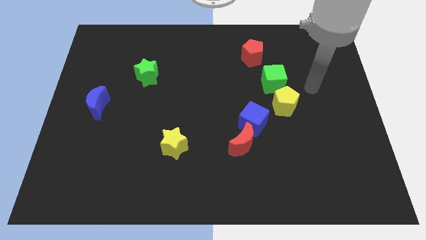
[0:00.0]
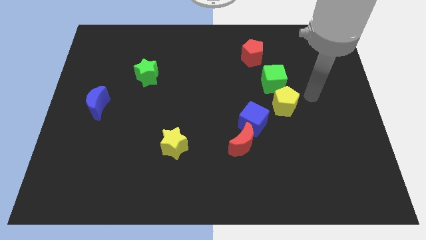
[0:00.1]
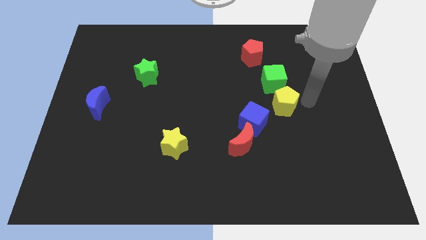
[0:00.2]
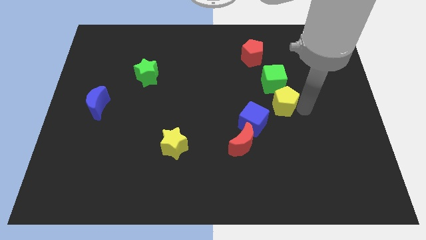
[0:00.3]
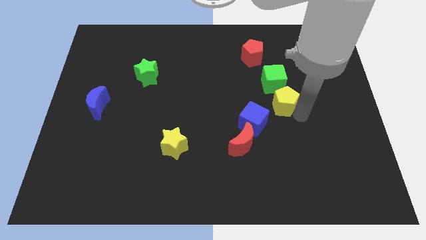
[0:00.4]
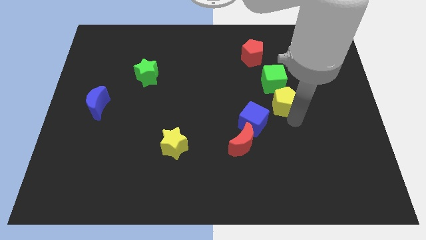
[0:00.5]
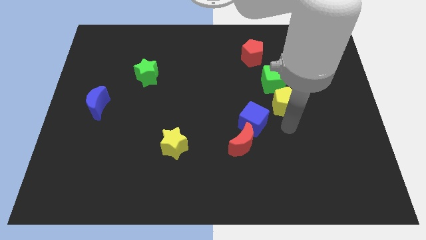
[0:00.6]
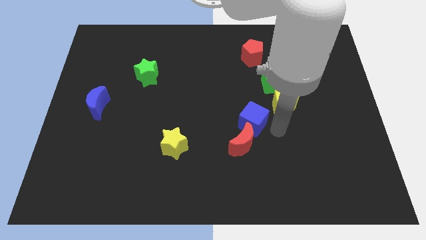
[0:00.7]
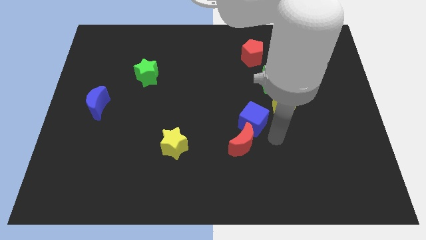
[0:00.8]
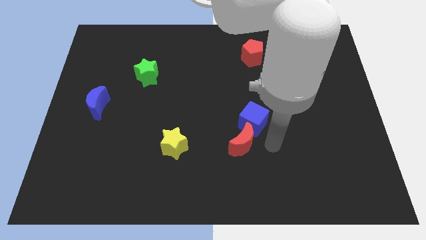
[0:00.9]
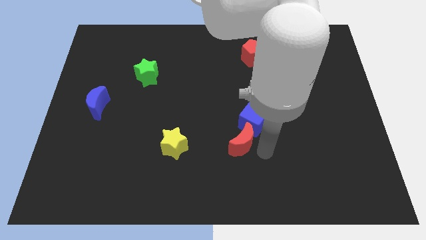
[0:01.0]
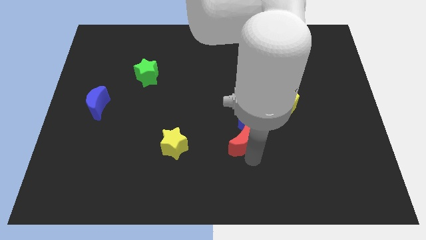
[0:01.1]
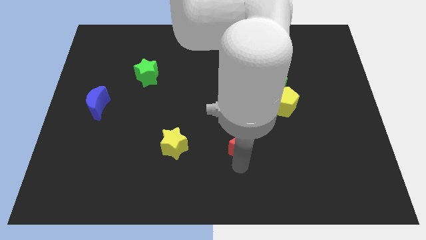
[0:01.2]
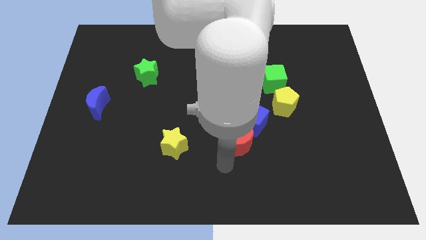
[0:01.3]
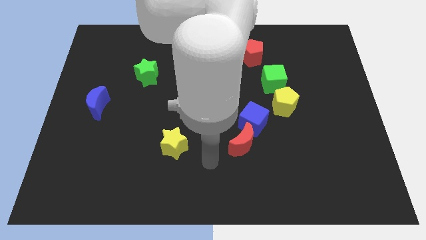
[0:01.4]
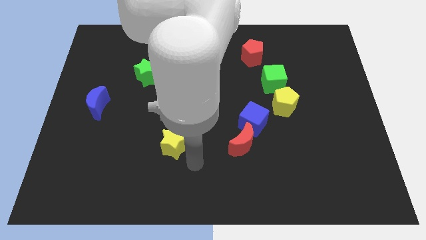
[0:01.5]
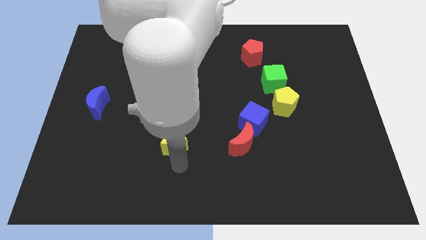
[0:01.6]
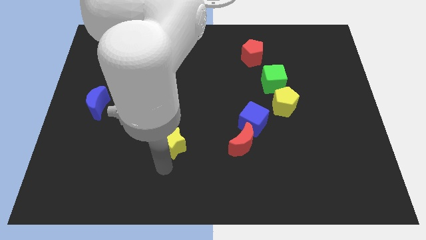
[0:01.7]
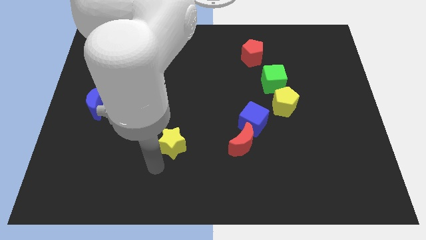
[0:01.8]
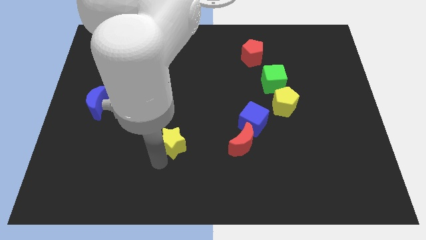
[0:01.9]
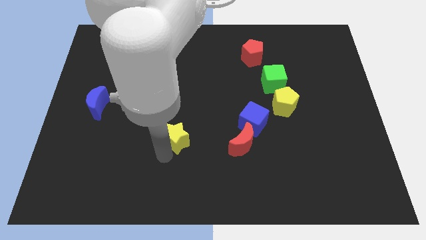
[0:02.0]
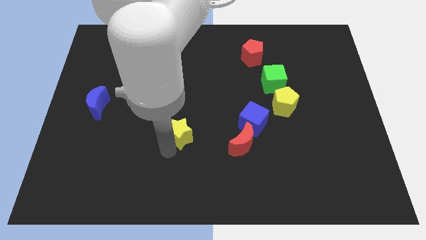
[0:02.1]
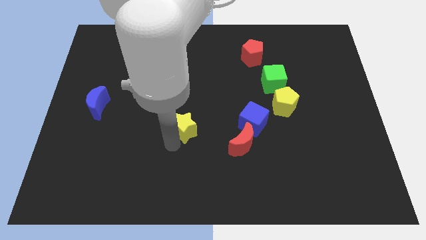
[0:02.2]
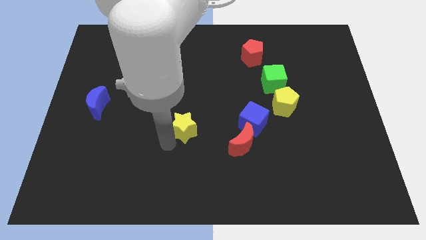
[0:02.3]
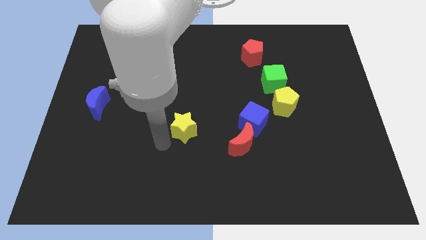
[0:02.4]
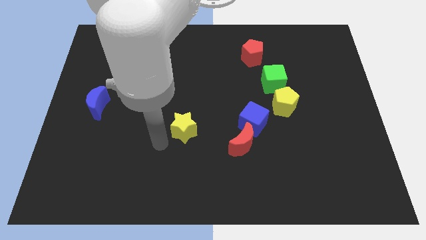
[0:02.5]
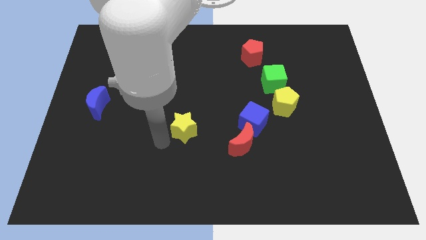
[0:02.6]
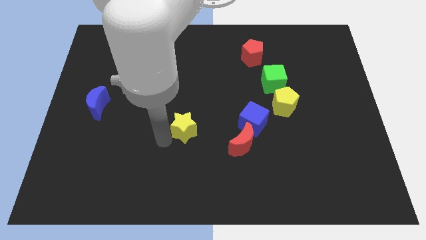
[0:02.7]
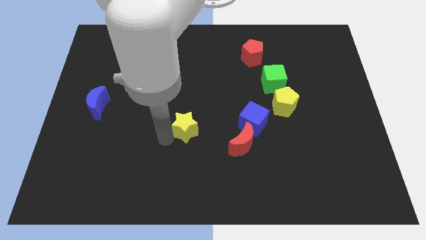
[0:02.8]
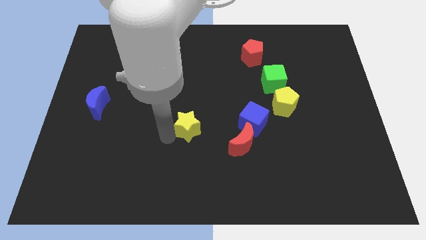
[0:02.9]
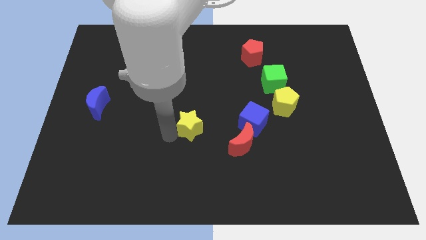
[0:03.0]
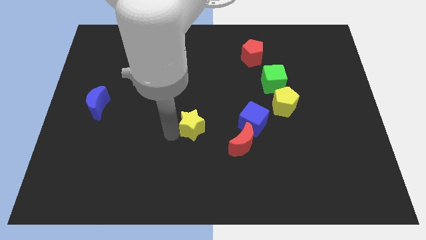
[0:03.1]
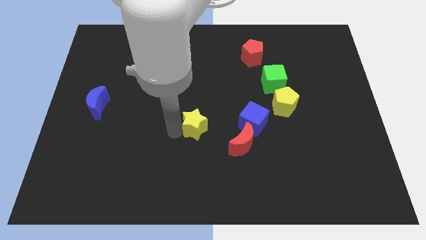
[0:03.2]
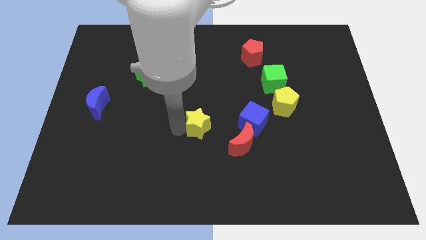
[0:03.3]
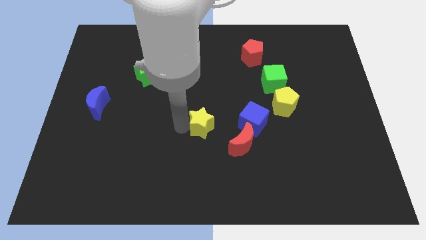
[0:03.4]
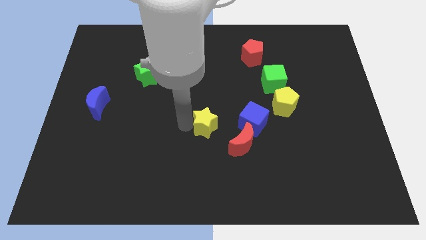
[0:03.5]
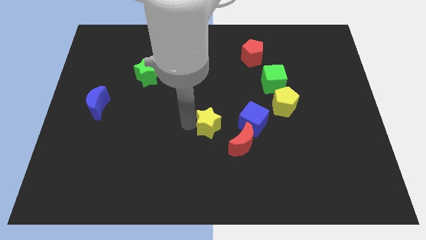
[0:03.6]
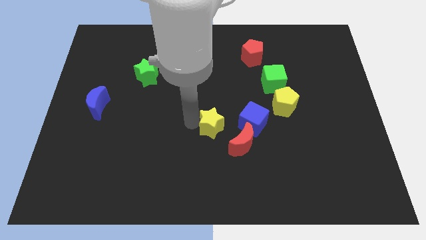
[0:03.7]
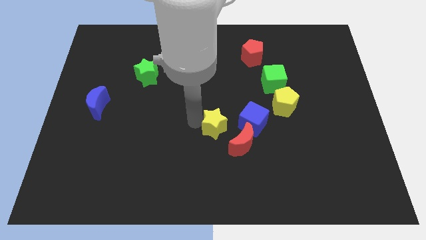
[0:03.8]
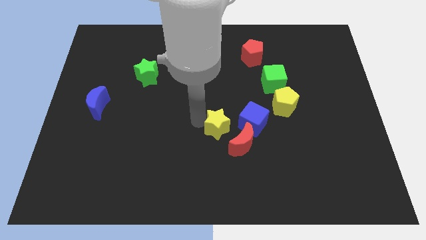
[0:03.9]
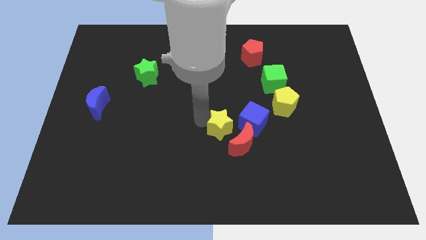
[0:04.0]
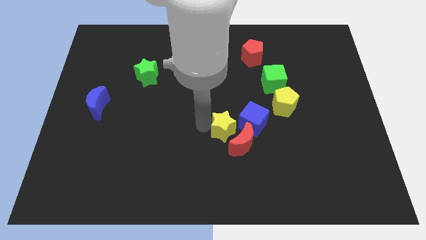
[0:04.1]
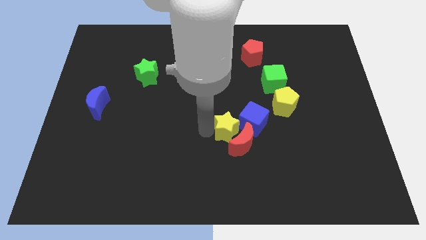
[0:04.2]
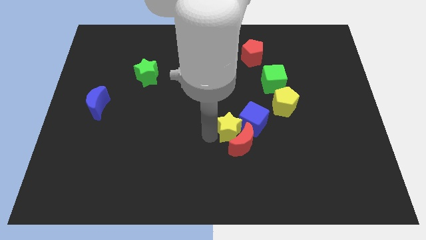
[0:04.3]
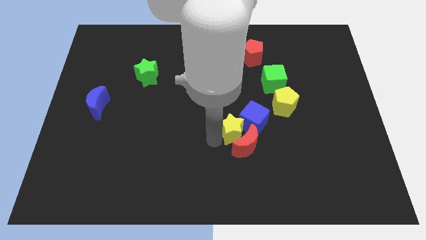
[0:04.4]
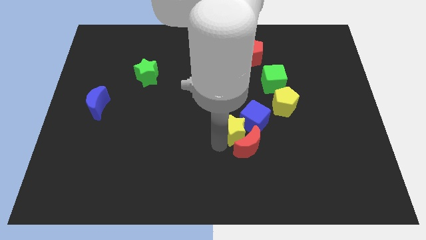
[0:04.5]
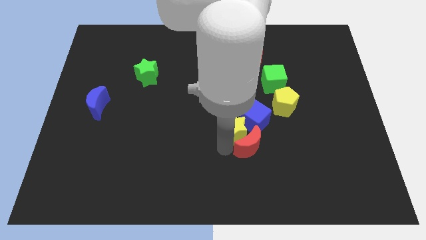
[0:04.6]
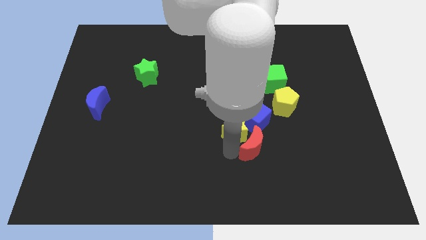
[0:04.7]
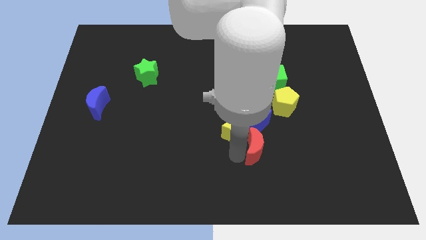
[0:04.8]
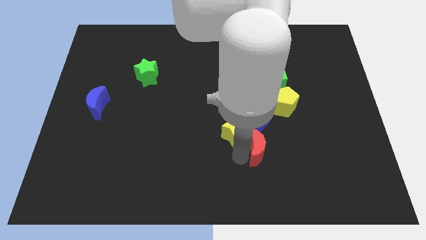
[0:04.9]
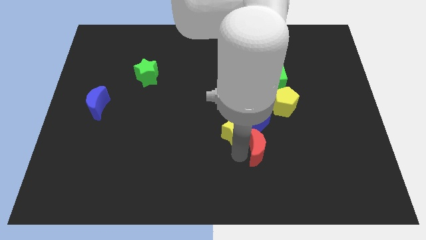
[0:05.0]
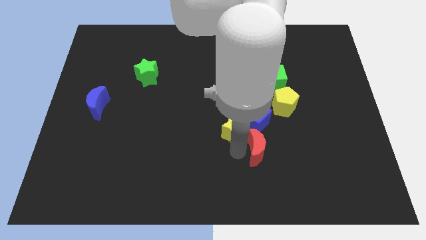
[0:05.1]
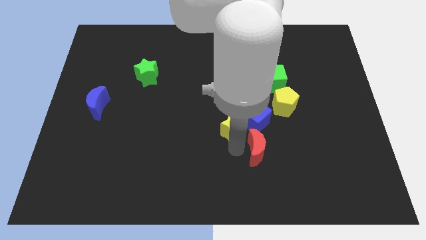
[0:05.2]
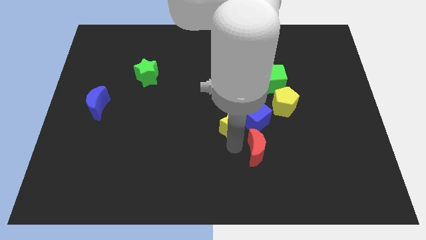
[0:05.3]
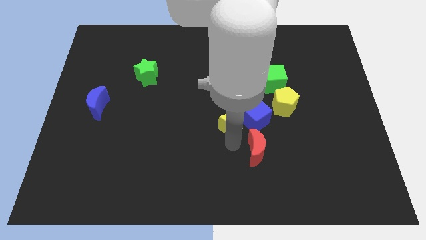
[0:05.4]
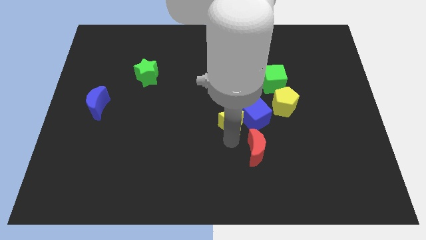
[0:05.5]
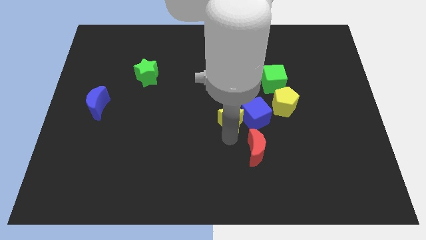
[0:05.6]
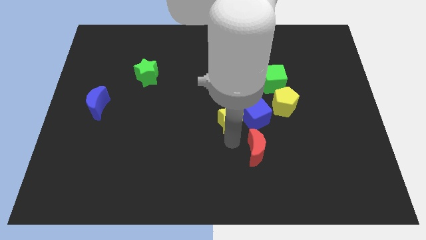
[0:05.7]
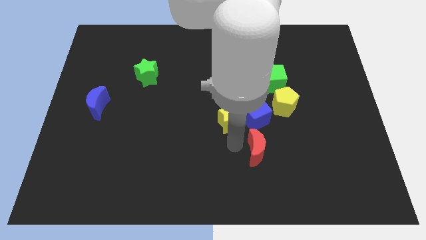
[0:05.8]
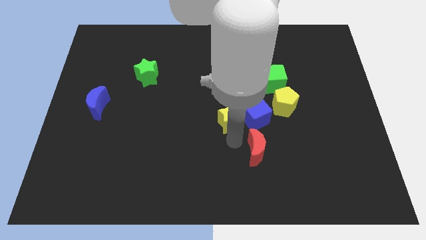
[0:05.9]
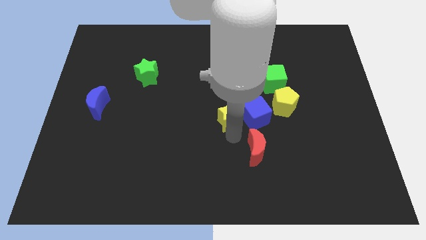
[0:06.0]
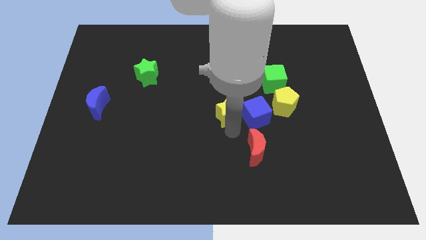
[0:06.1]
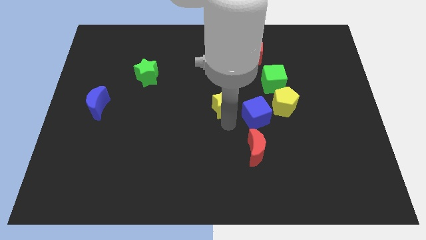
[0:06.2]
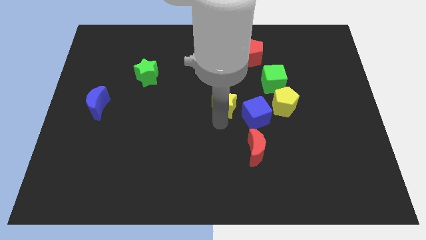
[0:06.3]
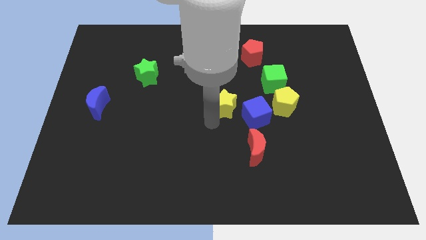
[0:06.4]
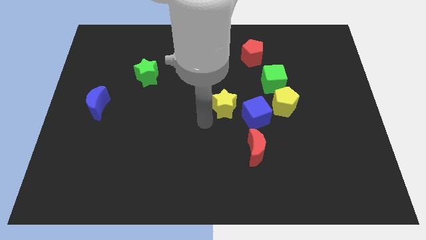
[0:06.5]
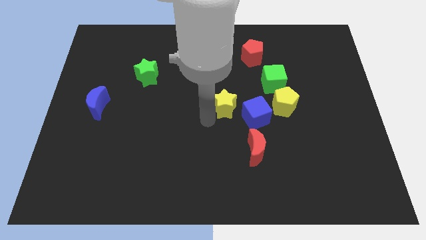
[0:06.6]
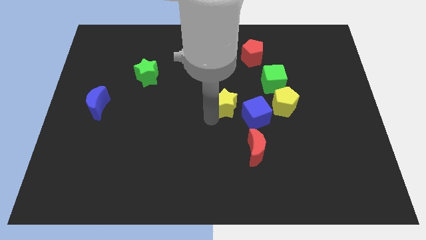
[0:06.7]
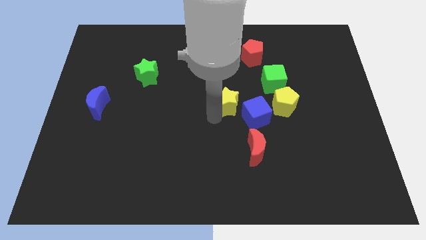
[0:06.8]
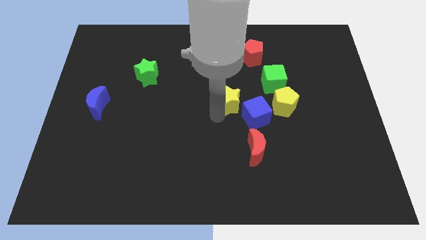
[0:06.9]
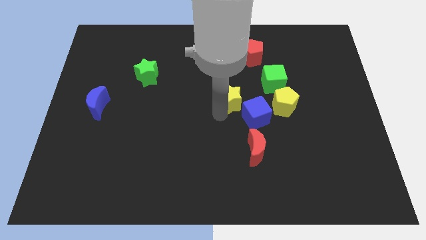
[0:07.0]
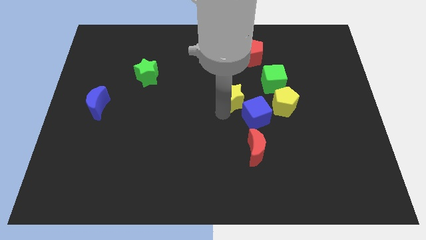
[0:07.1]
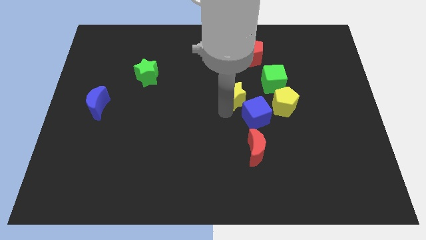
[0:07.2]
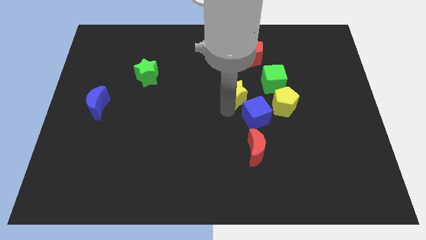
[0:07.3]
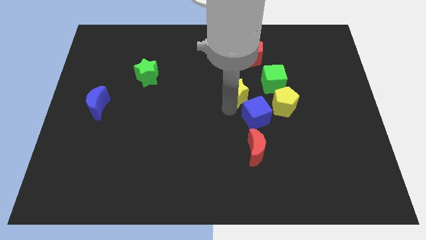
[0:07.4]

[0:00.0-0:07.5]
slide the yellow star upwards and to the right diagonally

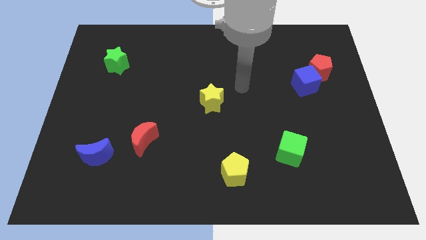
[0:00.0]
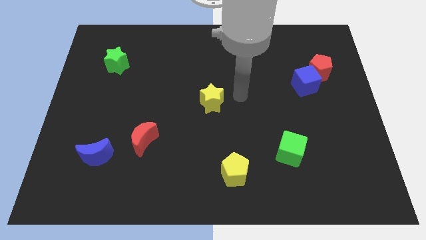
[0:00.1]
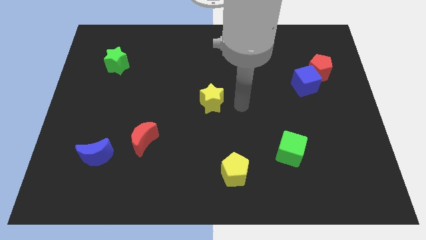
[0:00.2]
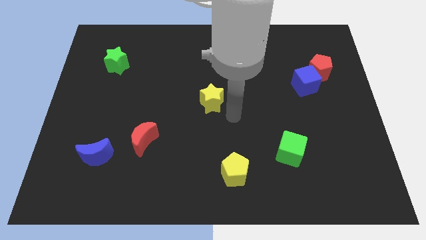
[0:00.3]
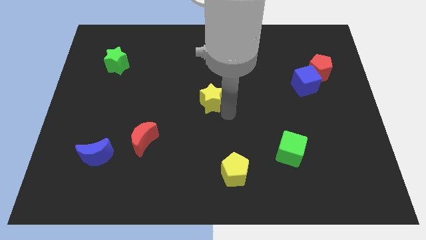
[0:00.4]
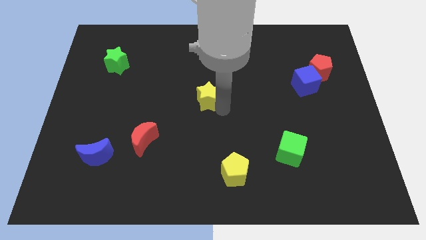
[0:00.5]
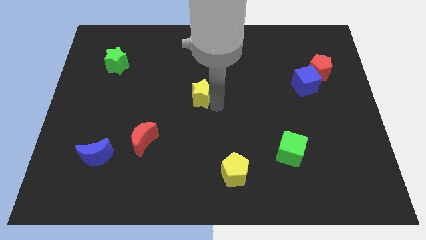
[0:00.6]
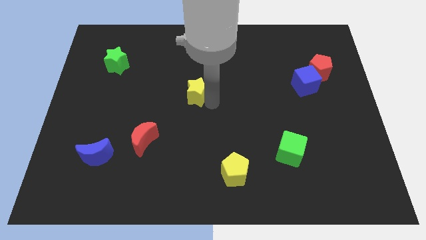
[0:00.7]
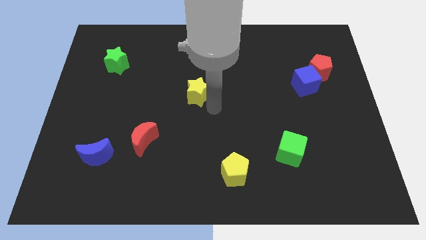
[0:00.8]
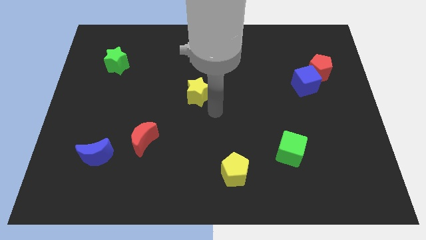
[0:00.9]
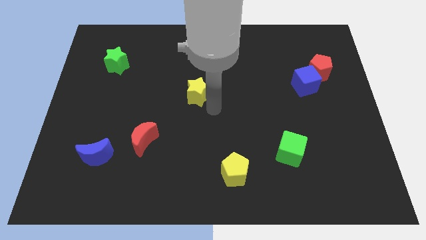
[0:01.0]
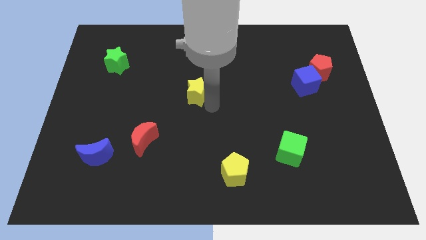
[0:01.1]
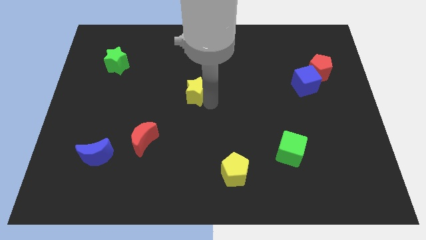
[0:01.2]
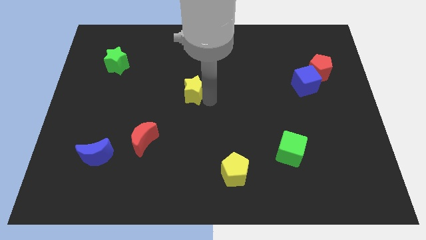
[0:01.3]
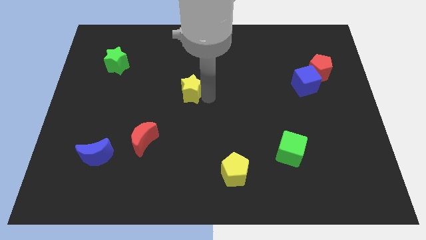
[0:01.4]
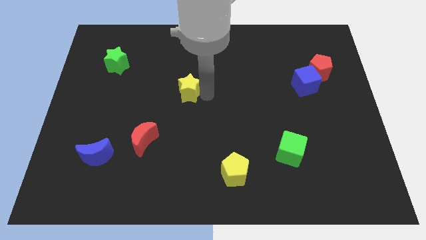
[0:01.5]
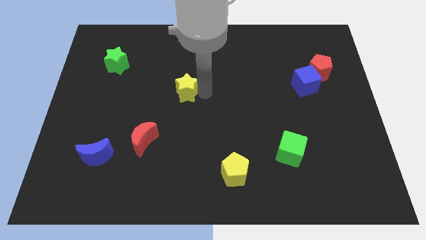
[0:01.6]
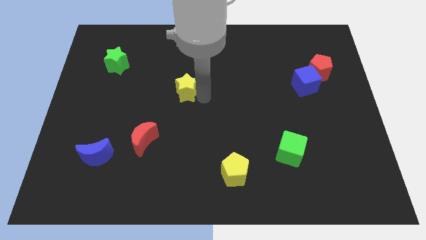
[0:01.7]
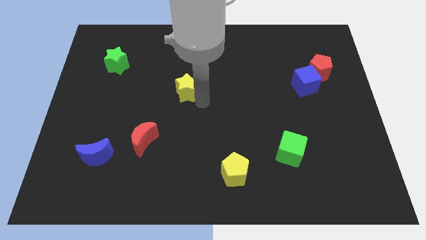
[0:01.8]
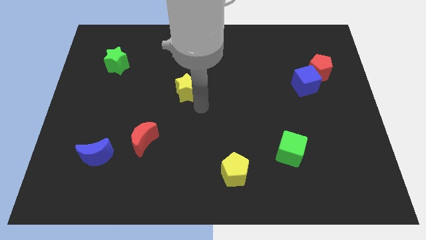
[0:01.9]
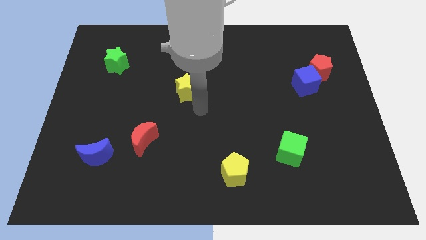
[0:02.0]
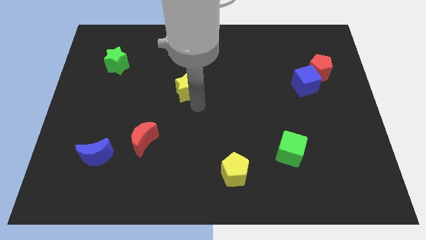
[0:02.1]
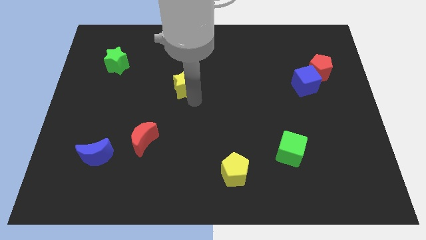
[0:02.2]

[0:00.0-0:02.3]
slide the yellow star upwards and to the left a little
